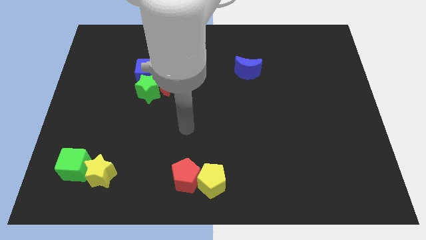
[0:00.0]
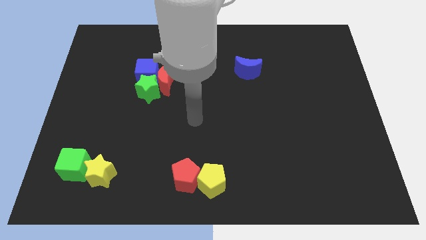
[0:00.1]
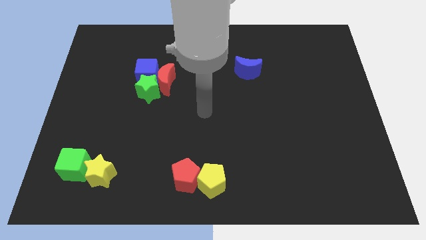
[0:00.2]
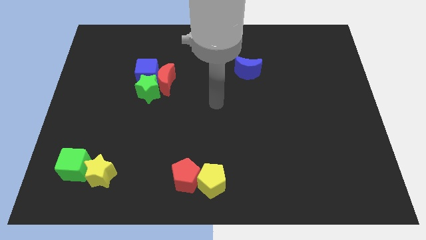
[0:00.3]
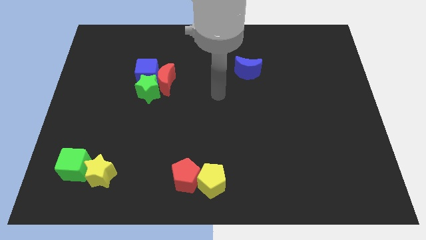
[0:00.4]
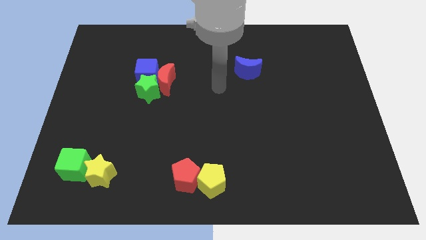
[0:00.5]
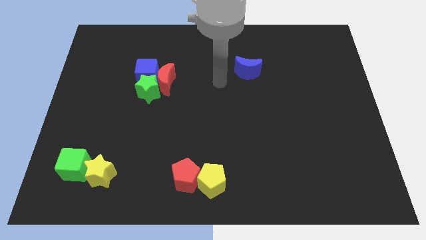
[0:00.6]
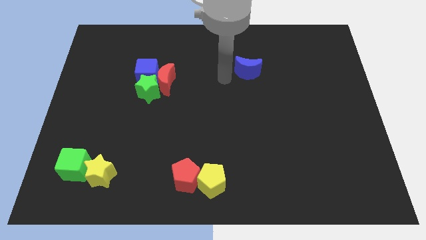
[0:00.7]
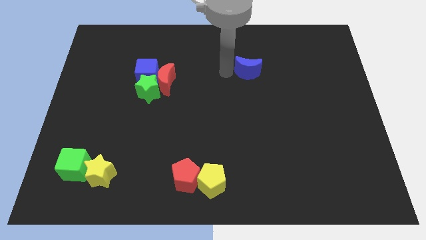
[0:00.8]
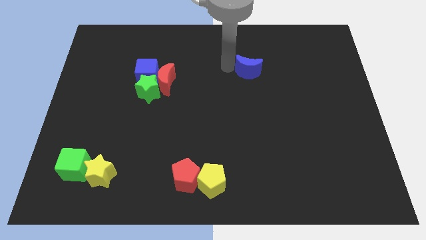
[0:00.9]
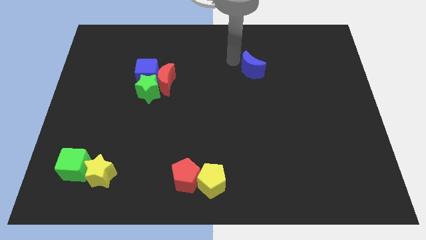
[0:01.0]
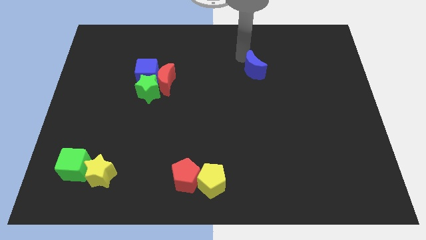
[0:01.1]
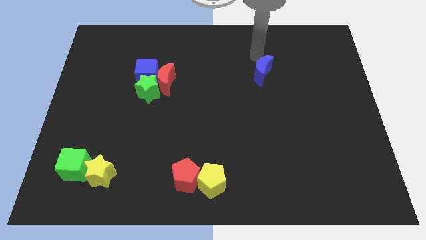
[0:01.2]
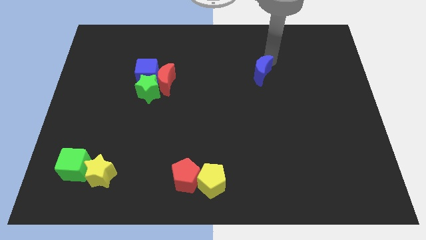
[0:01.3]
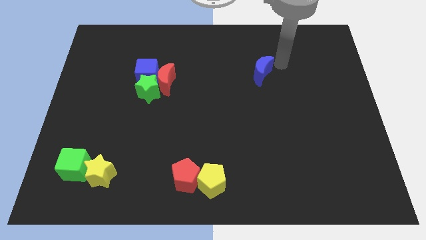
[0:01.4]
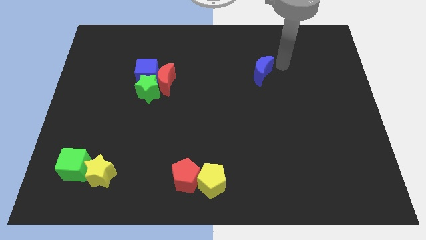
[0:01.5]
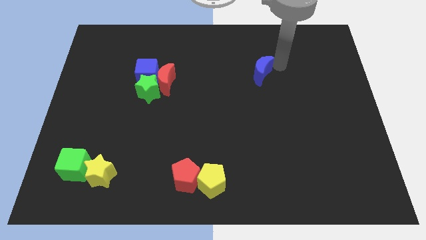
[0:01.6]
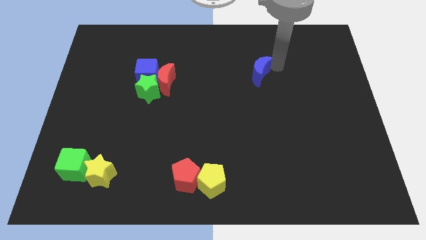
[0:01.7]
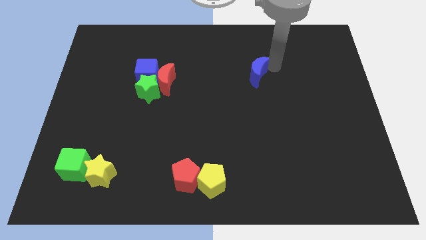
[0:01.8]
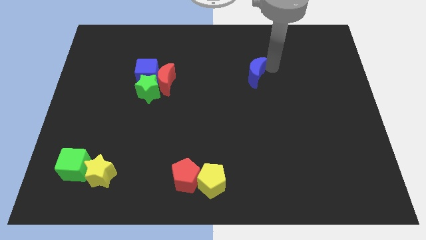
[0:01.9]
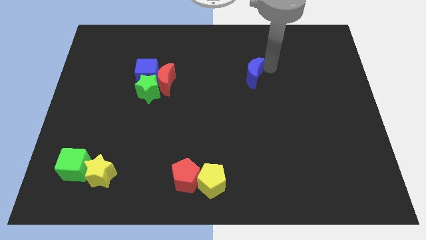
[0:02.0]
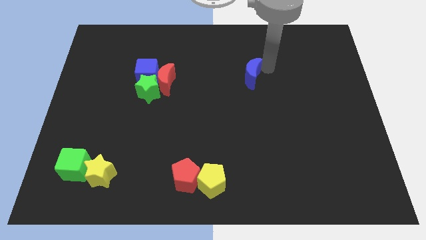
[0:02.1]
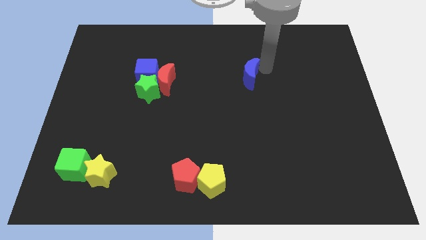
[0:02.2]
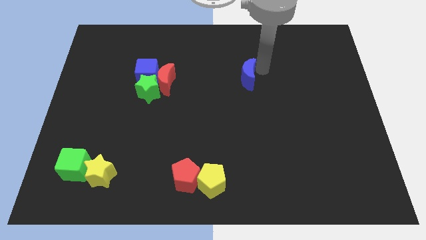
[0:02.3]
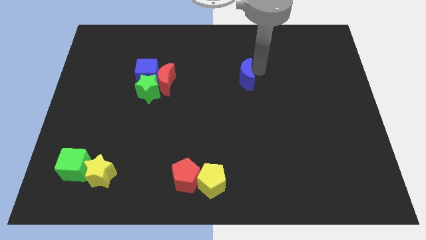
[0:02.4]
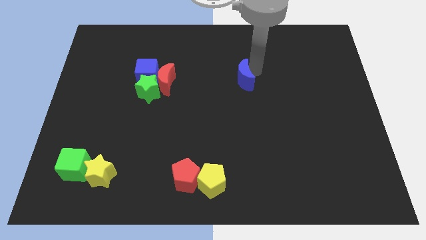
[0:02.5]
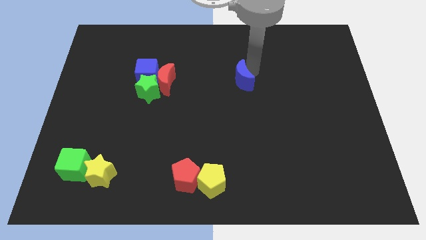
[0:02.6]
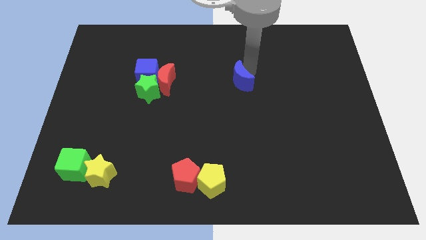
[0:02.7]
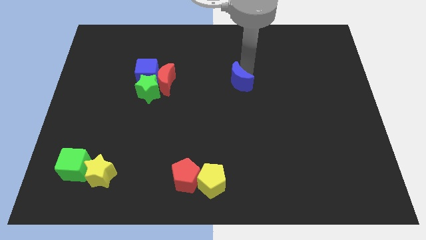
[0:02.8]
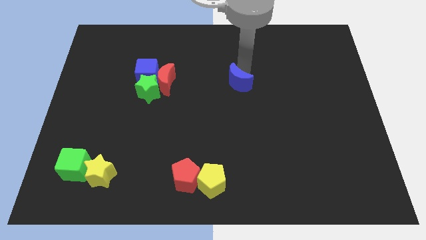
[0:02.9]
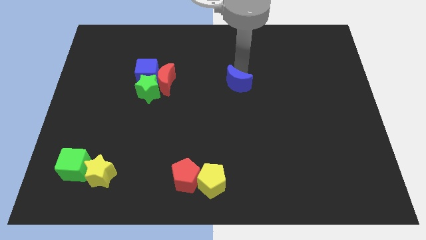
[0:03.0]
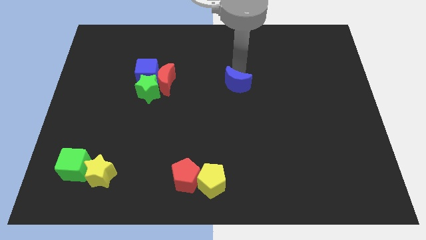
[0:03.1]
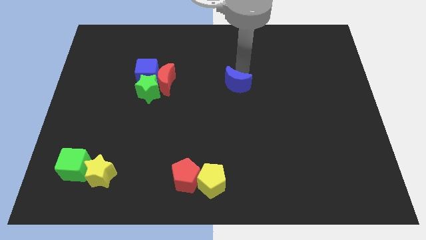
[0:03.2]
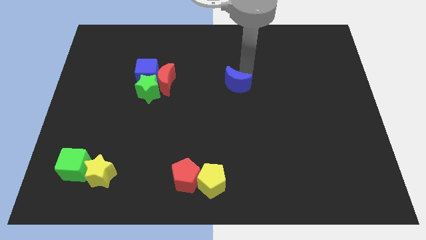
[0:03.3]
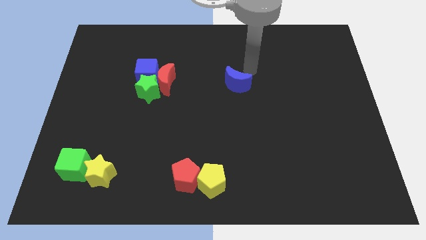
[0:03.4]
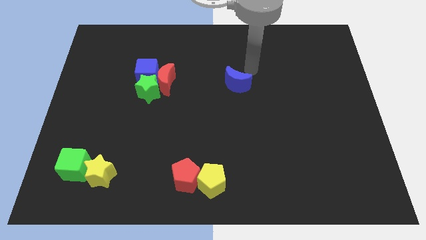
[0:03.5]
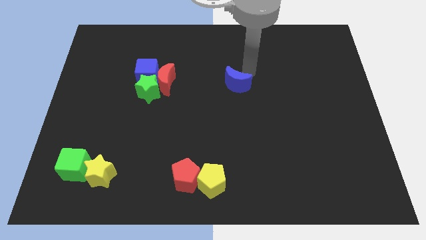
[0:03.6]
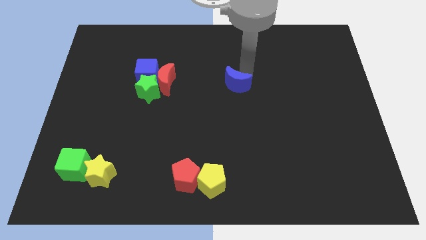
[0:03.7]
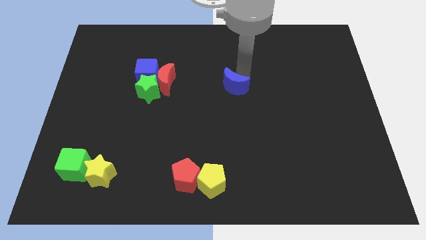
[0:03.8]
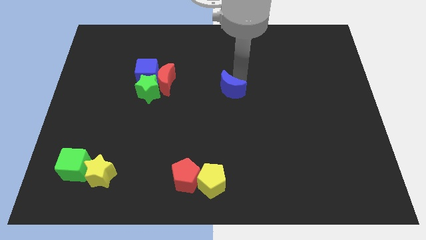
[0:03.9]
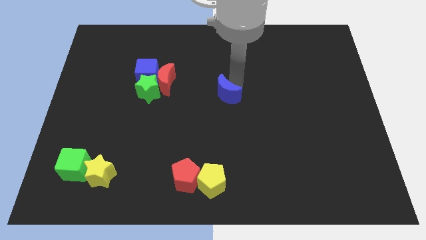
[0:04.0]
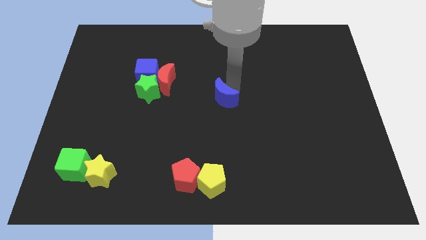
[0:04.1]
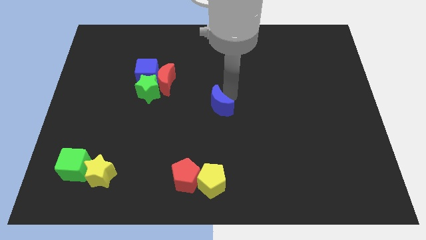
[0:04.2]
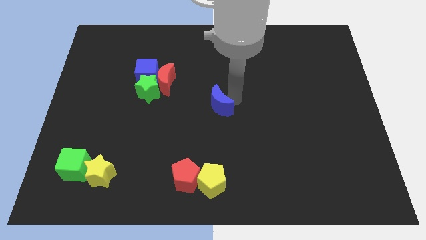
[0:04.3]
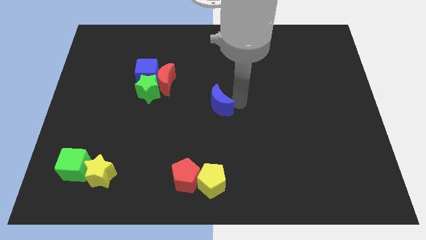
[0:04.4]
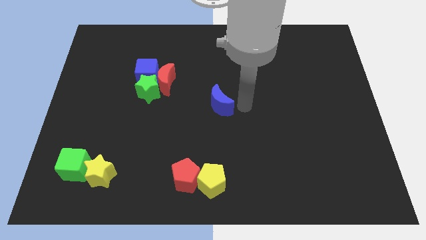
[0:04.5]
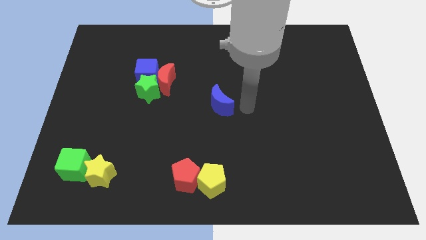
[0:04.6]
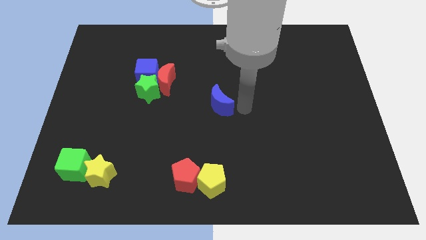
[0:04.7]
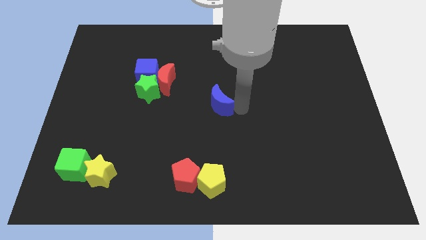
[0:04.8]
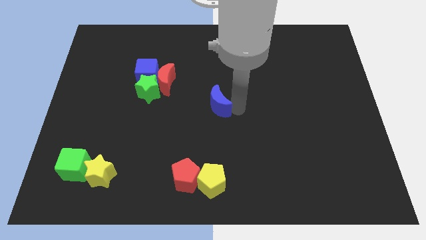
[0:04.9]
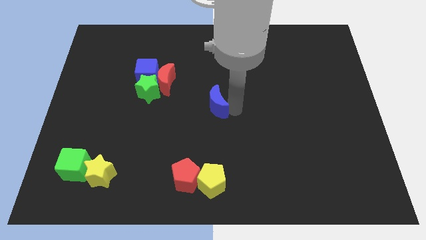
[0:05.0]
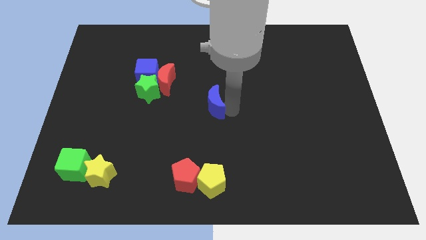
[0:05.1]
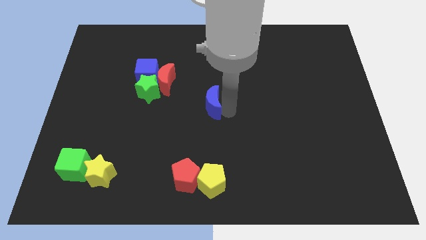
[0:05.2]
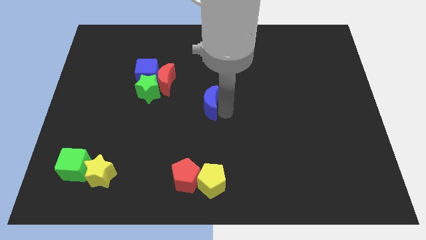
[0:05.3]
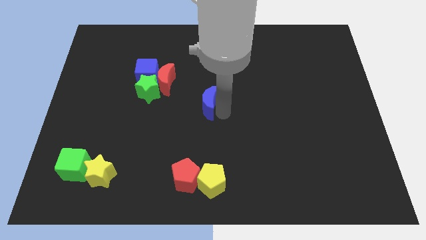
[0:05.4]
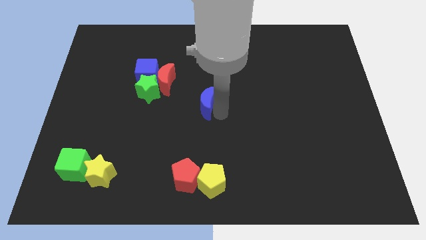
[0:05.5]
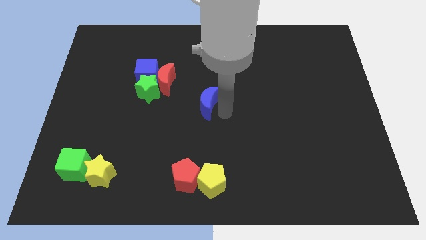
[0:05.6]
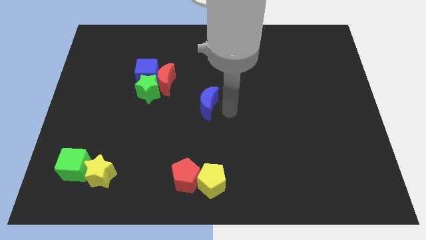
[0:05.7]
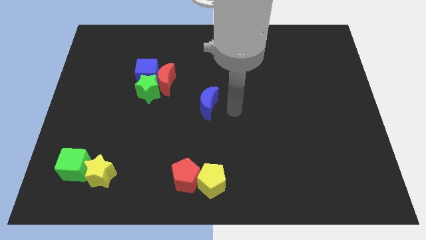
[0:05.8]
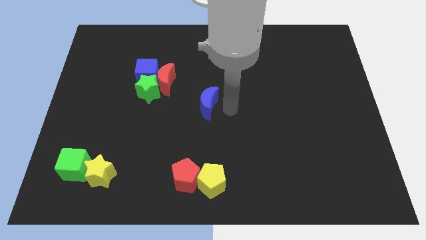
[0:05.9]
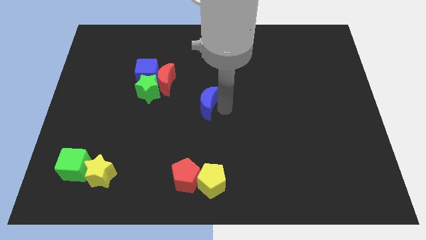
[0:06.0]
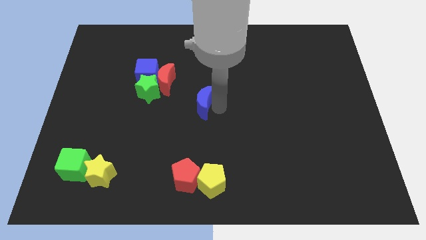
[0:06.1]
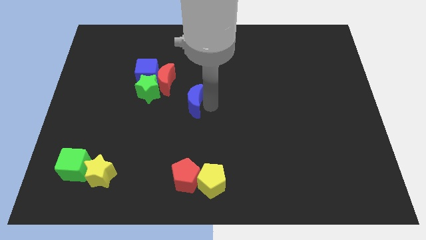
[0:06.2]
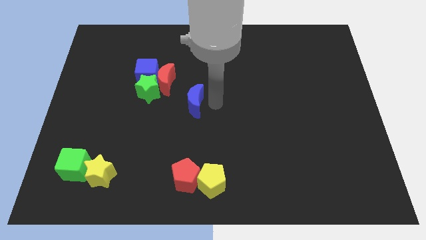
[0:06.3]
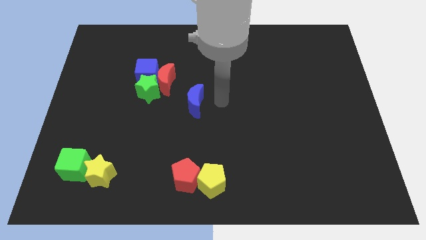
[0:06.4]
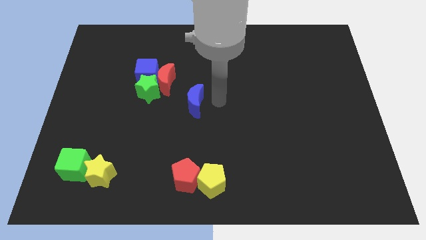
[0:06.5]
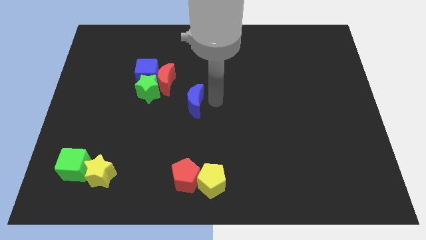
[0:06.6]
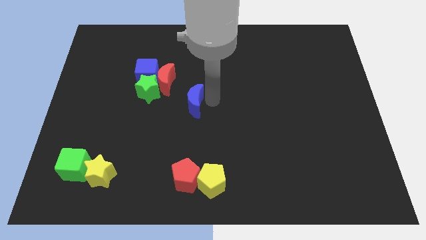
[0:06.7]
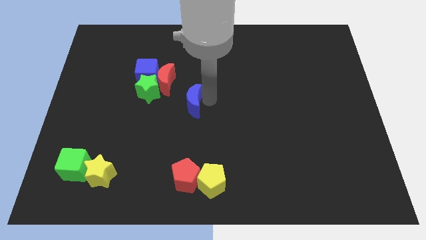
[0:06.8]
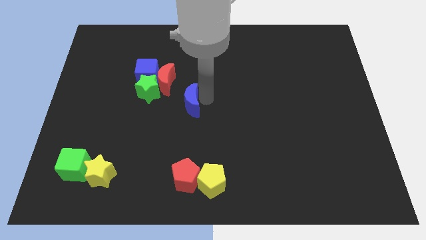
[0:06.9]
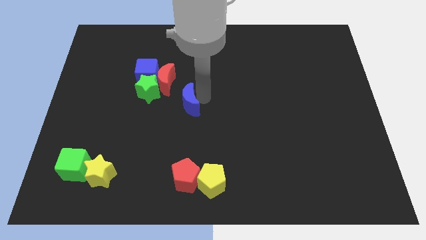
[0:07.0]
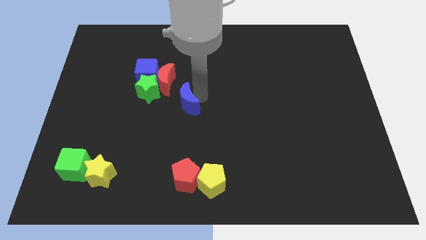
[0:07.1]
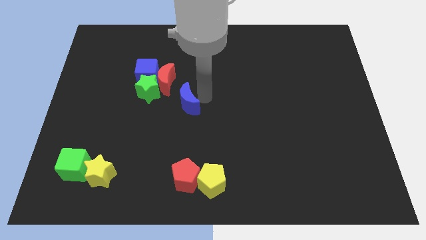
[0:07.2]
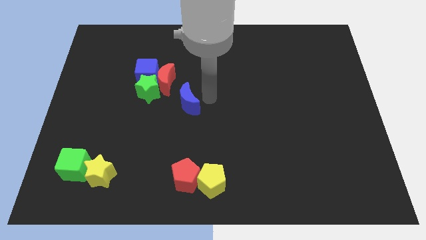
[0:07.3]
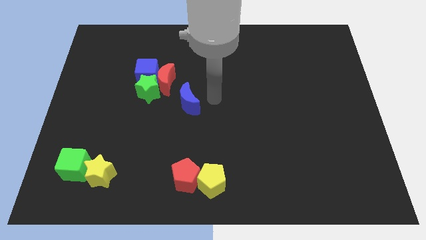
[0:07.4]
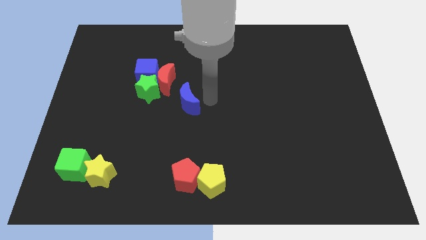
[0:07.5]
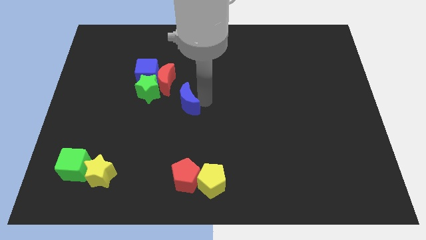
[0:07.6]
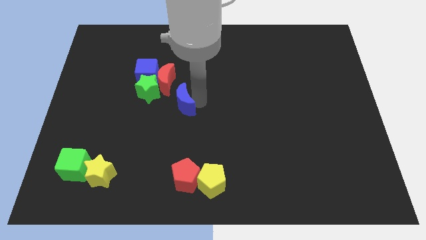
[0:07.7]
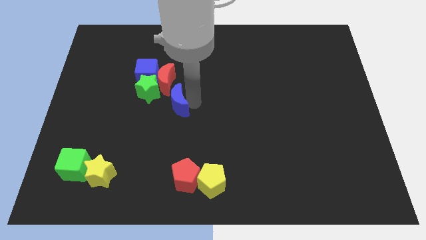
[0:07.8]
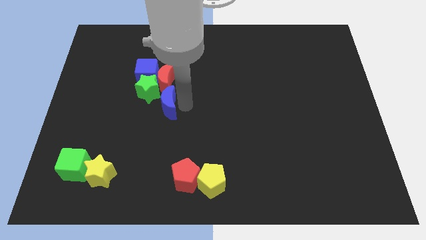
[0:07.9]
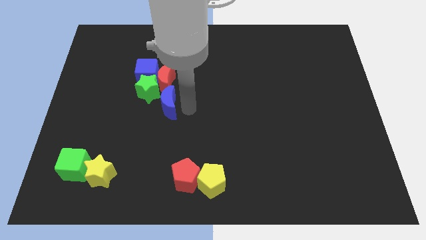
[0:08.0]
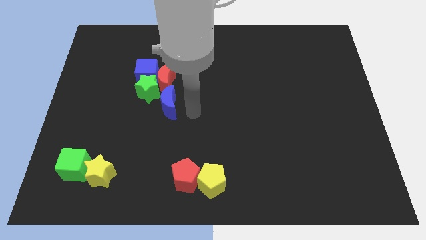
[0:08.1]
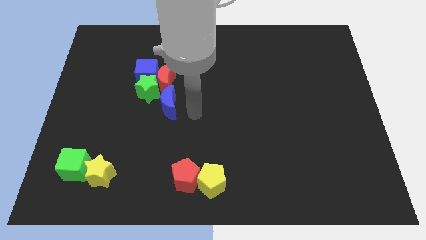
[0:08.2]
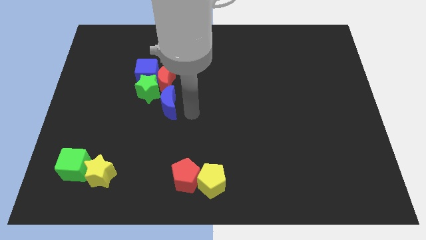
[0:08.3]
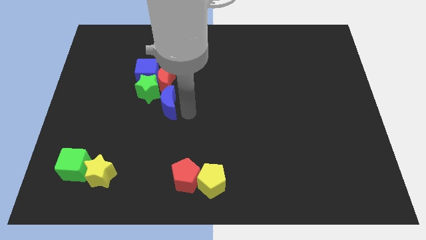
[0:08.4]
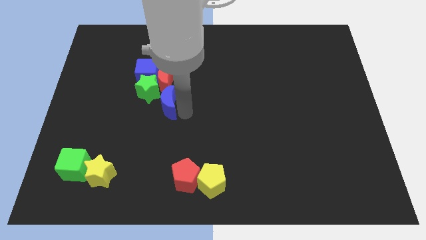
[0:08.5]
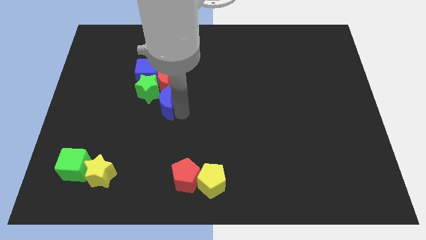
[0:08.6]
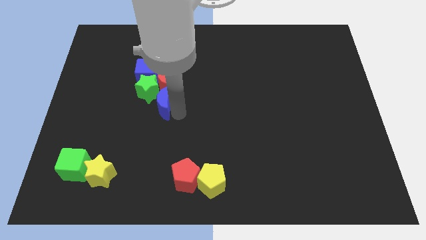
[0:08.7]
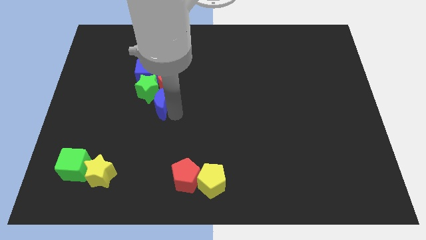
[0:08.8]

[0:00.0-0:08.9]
push the blue moon to the bottom left side of the red moon
